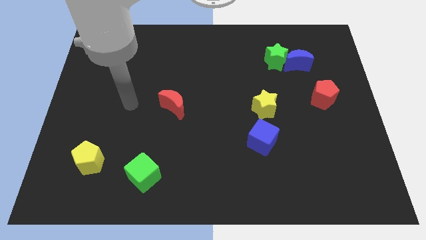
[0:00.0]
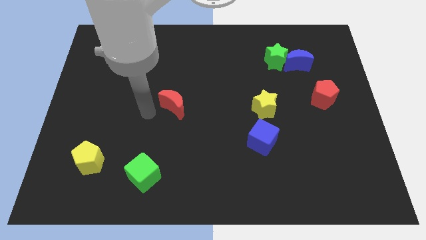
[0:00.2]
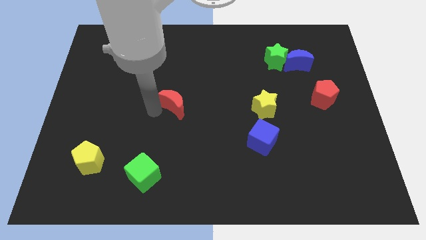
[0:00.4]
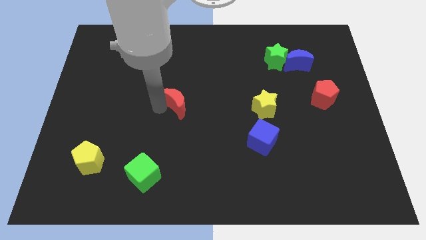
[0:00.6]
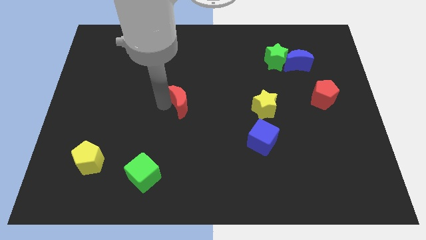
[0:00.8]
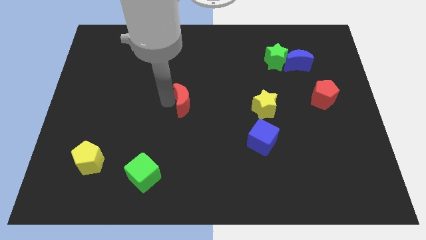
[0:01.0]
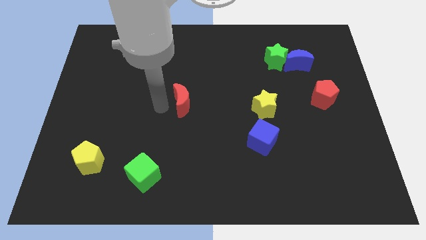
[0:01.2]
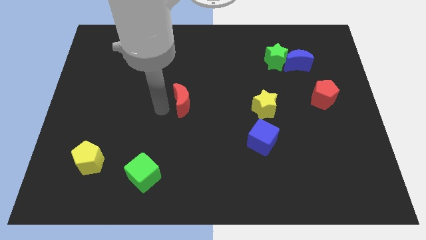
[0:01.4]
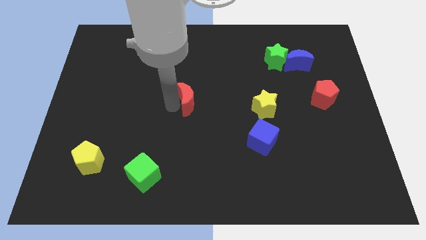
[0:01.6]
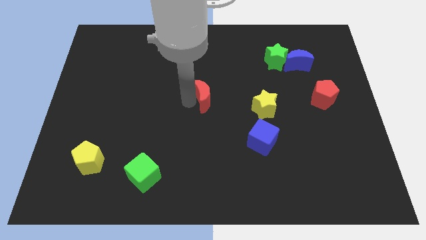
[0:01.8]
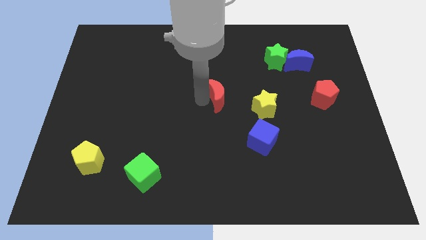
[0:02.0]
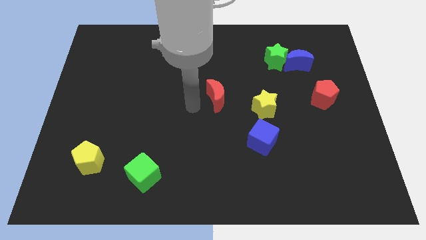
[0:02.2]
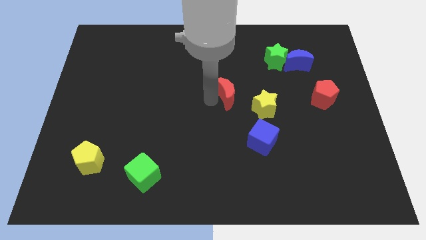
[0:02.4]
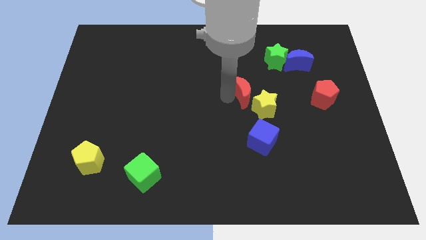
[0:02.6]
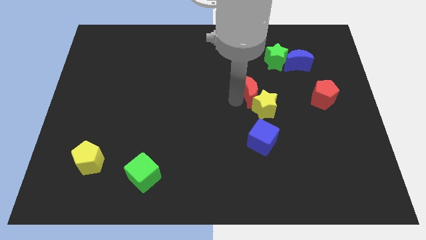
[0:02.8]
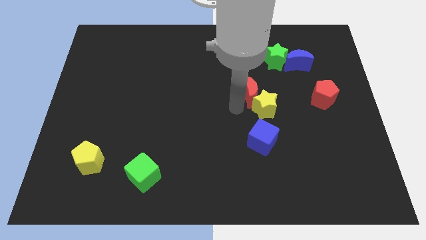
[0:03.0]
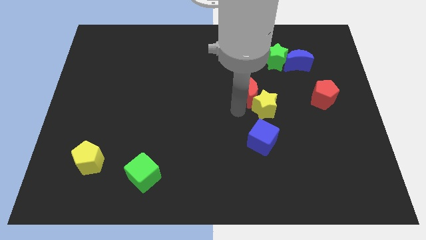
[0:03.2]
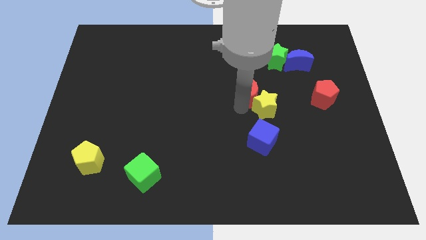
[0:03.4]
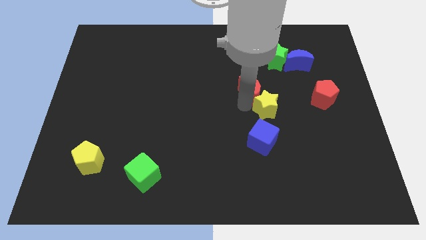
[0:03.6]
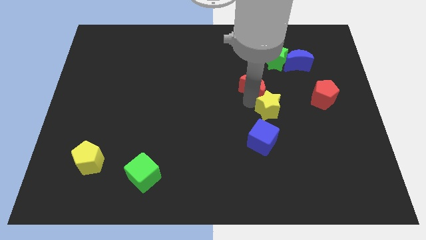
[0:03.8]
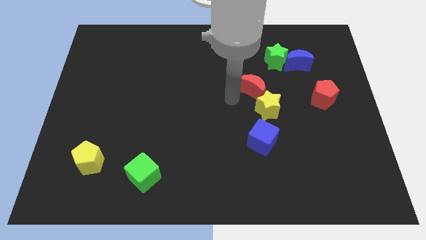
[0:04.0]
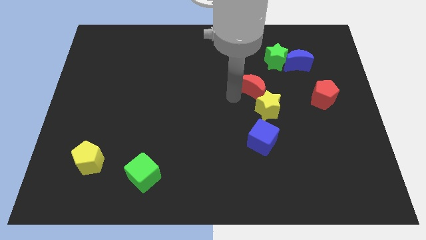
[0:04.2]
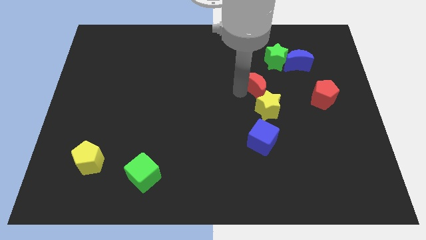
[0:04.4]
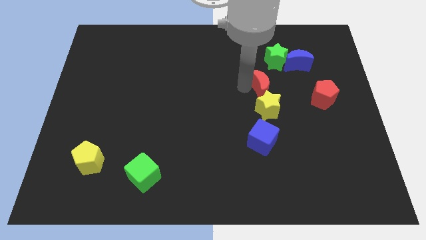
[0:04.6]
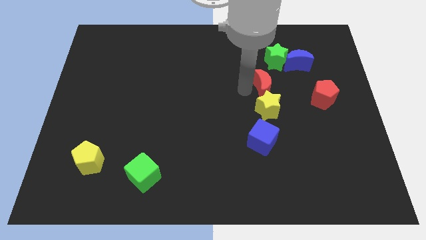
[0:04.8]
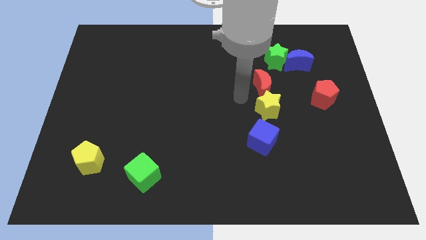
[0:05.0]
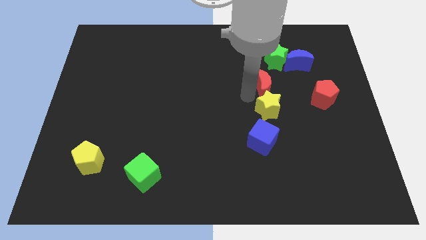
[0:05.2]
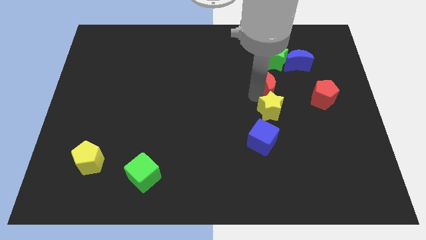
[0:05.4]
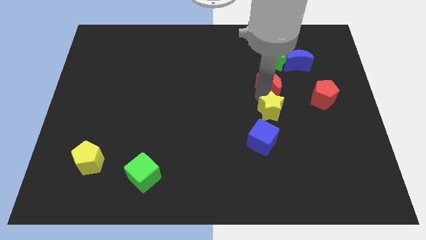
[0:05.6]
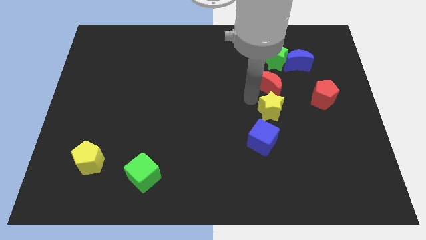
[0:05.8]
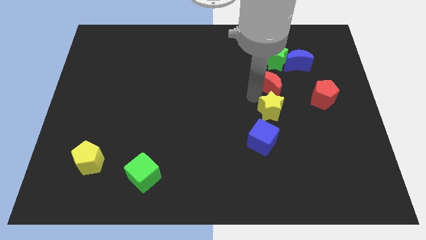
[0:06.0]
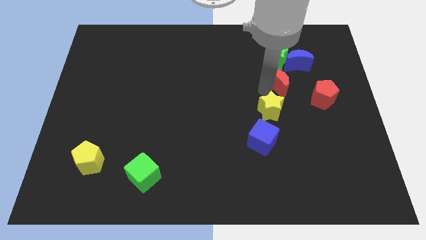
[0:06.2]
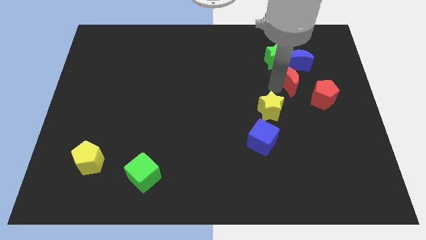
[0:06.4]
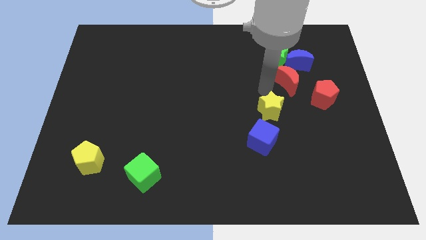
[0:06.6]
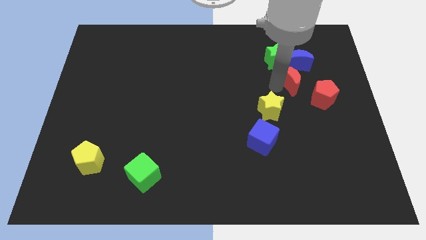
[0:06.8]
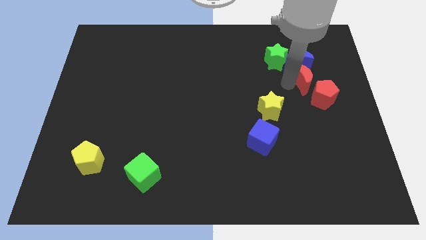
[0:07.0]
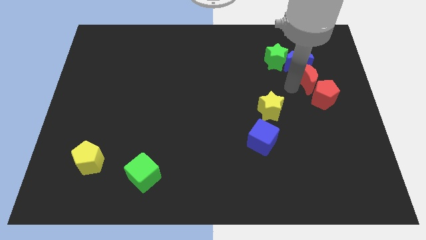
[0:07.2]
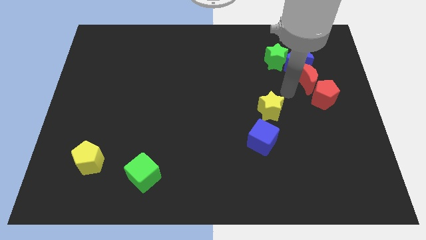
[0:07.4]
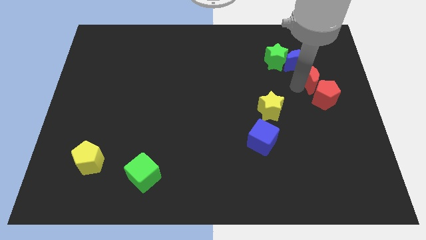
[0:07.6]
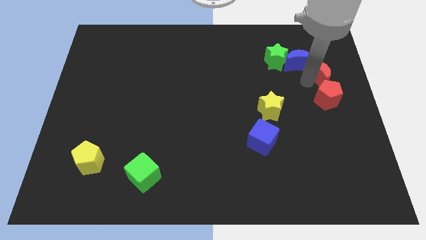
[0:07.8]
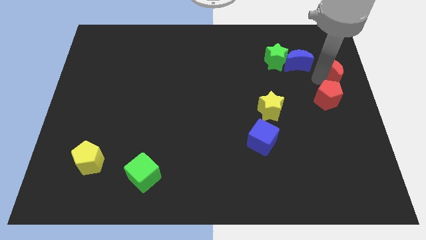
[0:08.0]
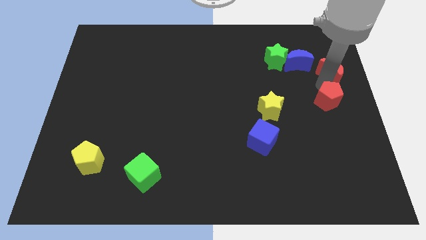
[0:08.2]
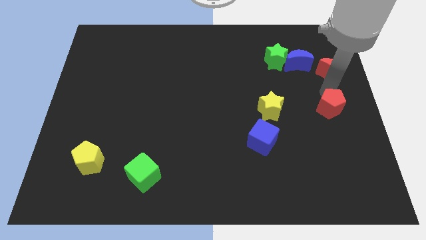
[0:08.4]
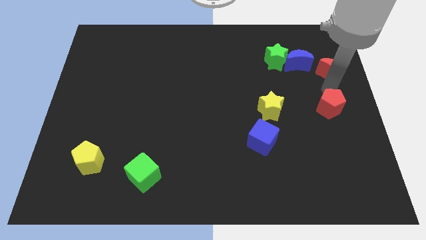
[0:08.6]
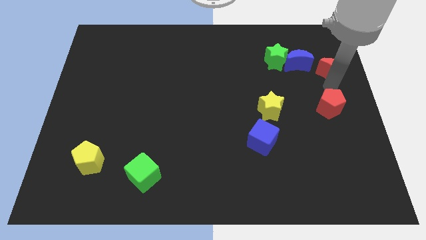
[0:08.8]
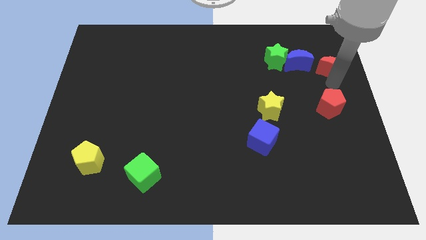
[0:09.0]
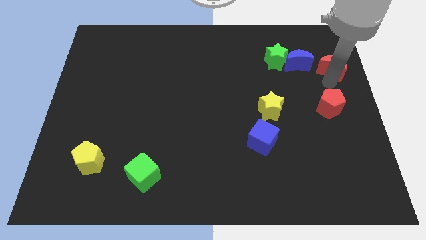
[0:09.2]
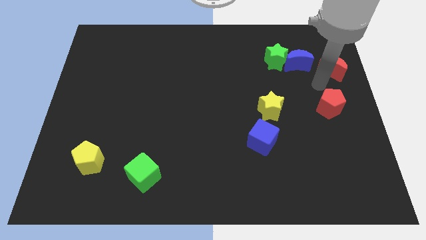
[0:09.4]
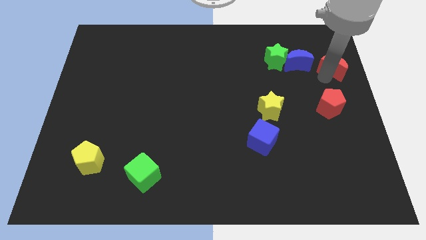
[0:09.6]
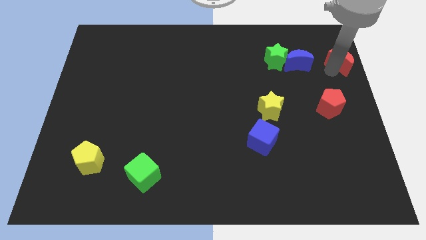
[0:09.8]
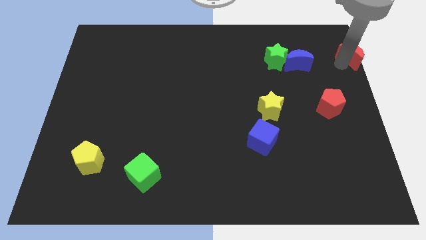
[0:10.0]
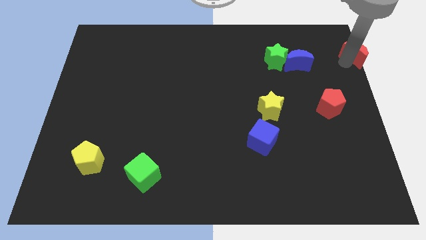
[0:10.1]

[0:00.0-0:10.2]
put the red moon to the top right corner

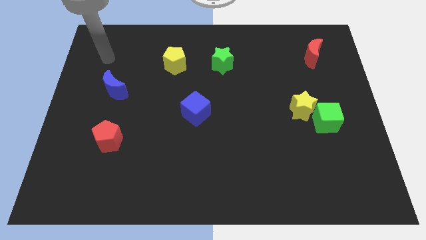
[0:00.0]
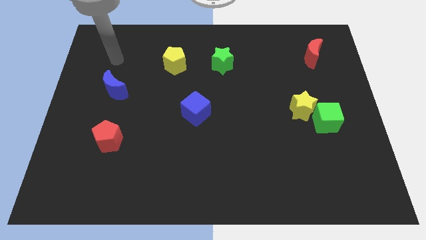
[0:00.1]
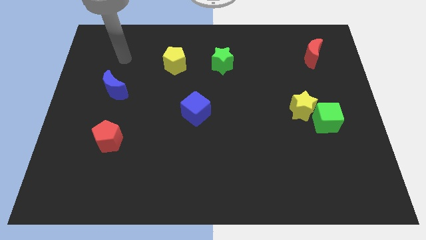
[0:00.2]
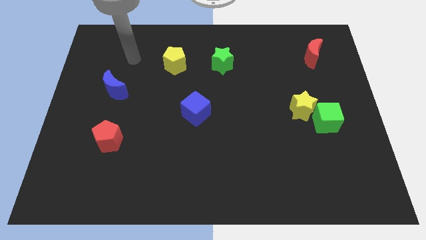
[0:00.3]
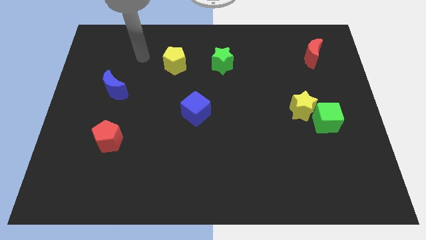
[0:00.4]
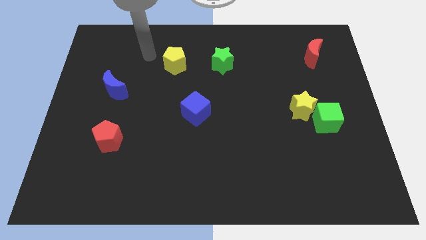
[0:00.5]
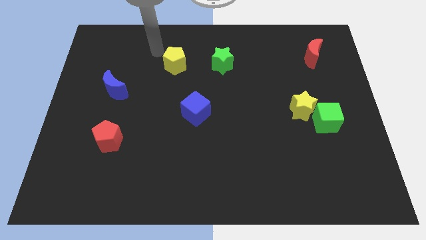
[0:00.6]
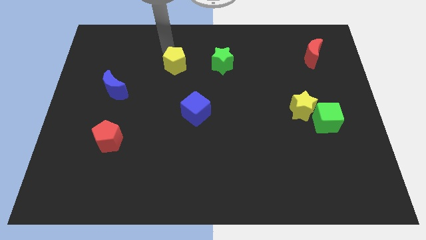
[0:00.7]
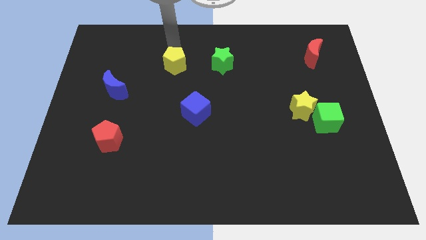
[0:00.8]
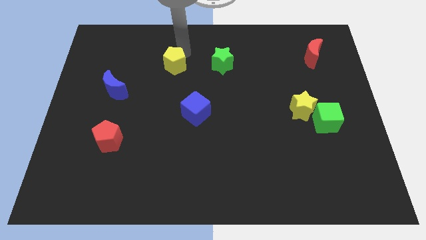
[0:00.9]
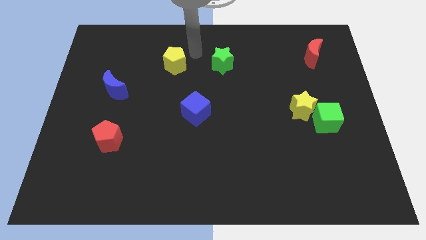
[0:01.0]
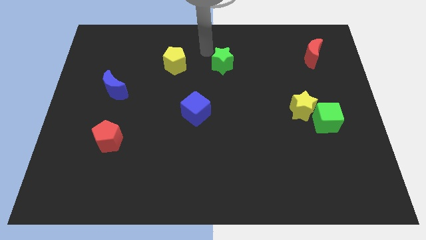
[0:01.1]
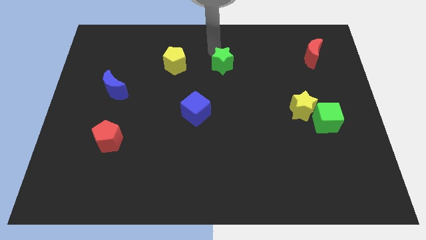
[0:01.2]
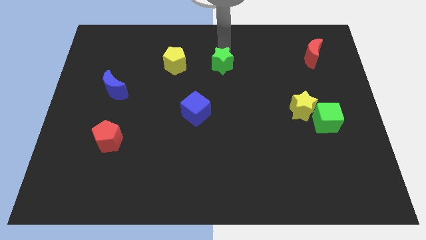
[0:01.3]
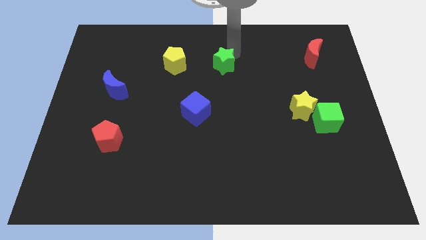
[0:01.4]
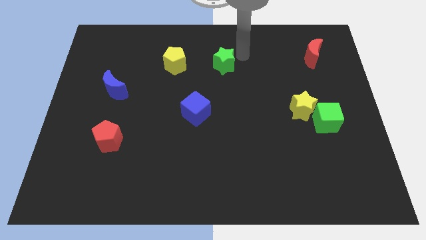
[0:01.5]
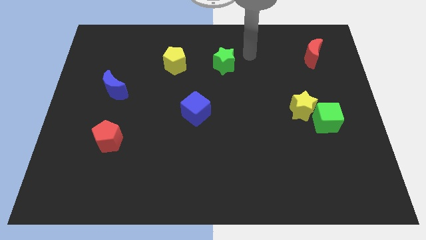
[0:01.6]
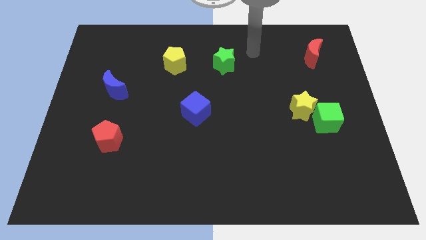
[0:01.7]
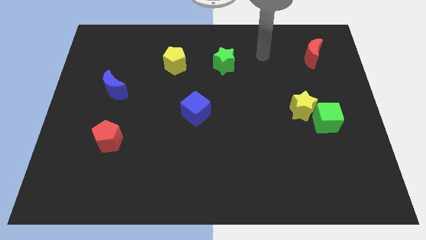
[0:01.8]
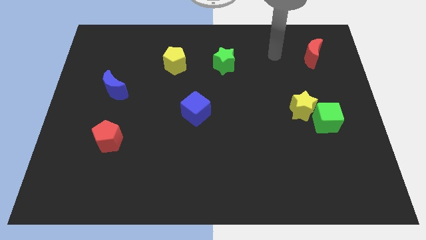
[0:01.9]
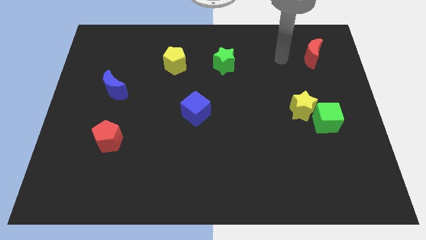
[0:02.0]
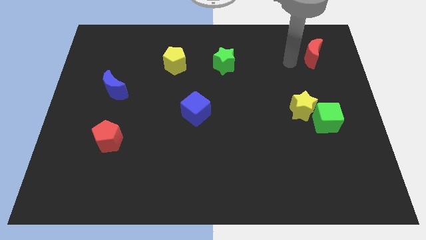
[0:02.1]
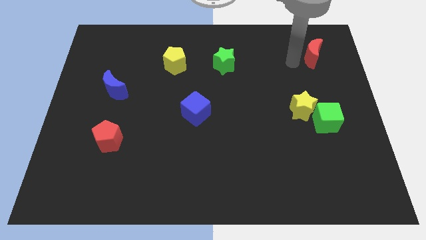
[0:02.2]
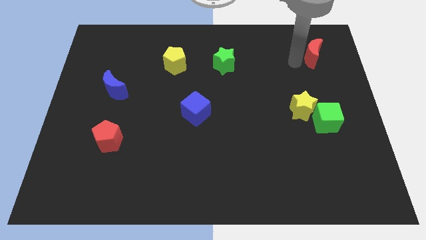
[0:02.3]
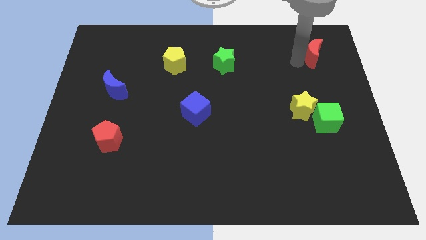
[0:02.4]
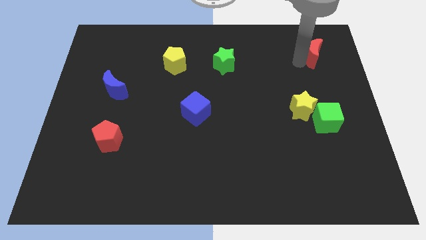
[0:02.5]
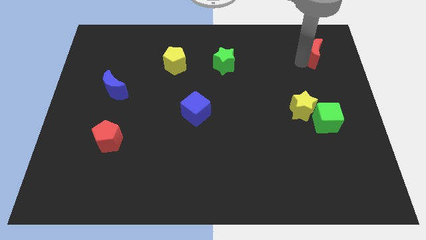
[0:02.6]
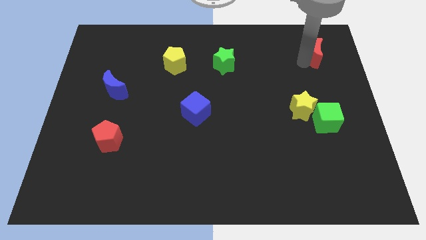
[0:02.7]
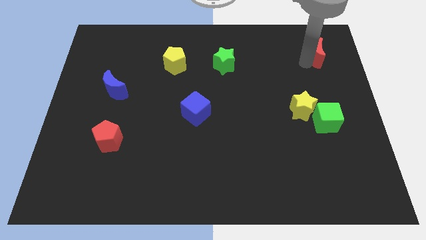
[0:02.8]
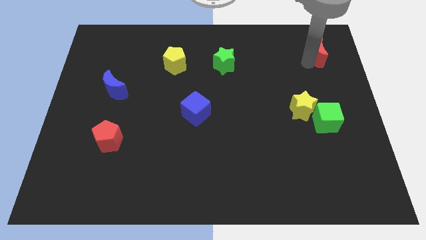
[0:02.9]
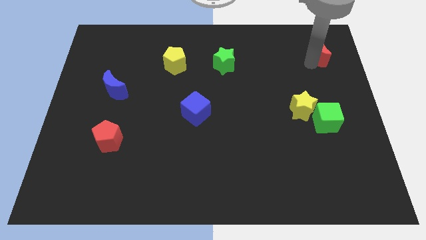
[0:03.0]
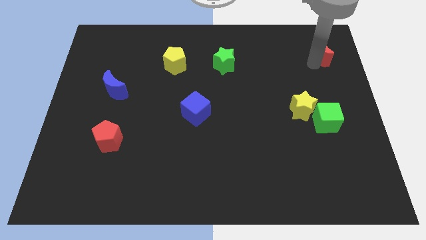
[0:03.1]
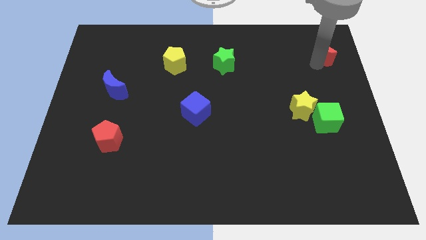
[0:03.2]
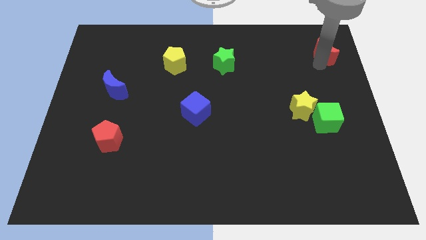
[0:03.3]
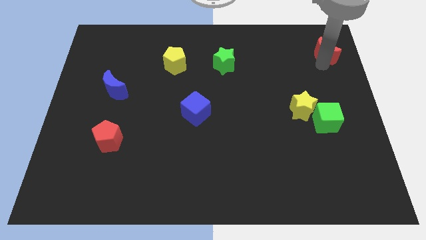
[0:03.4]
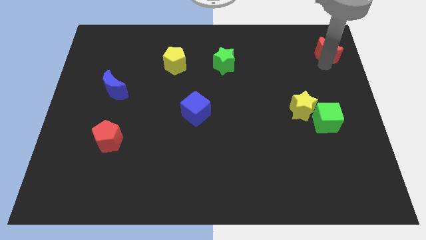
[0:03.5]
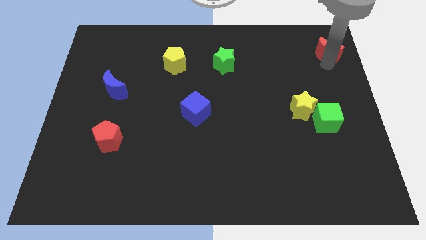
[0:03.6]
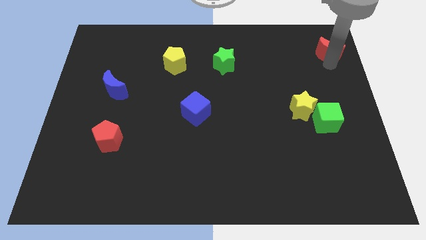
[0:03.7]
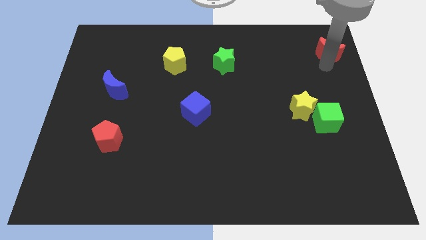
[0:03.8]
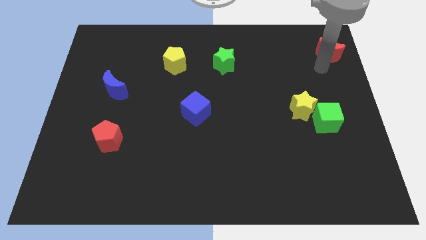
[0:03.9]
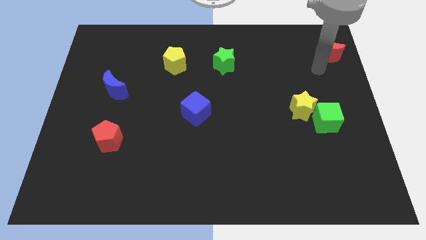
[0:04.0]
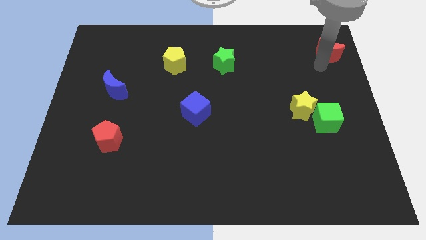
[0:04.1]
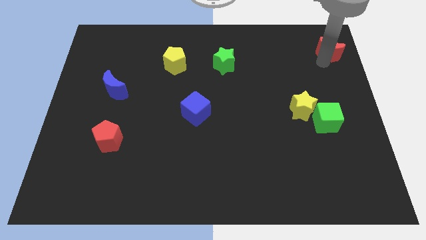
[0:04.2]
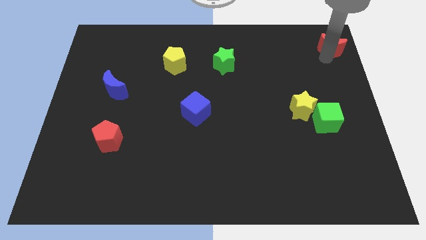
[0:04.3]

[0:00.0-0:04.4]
put the red moon to the upper right corner
